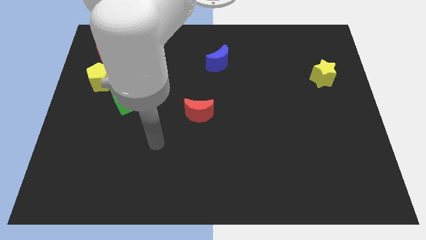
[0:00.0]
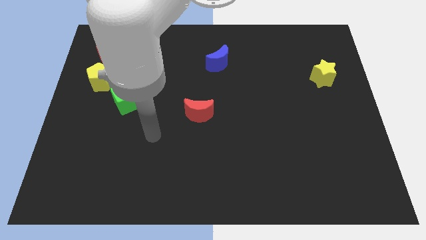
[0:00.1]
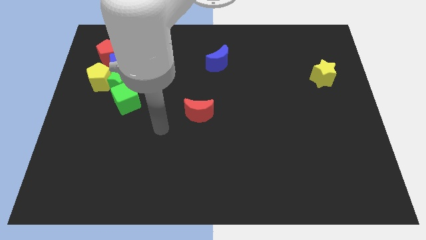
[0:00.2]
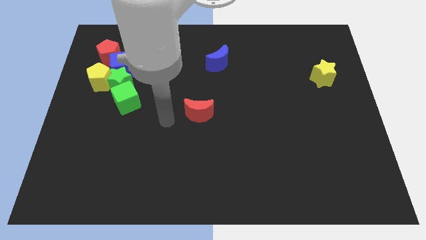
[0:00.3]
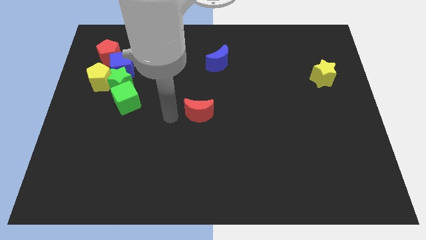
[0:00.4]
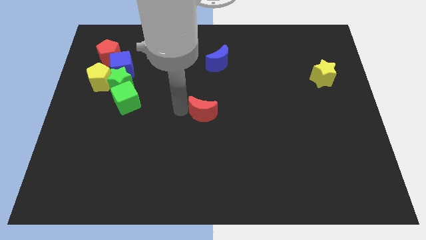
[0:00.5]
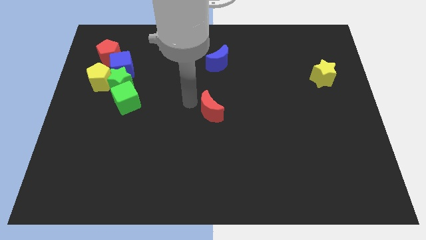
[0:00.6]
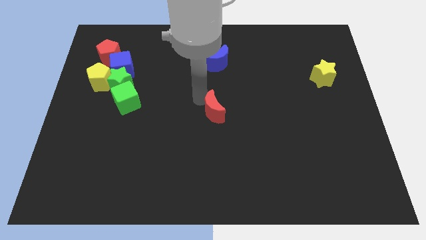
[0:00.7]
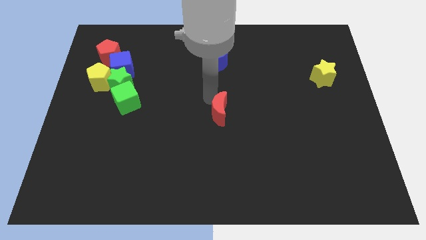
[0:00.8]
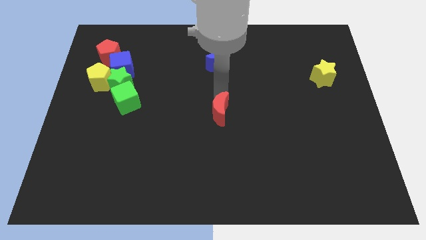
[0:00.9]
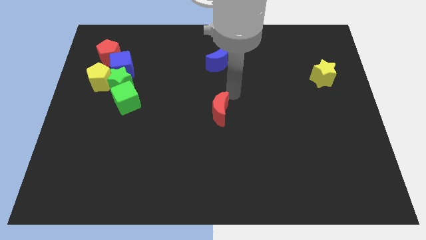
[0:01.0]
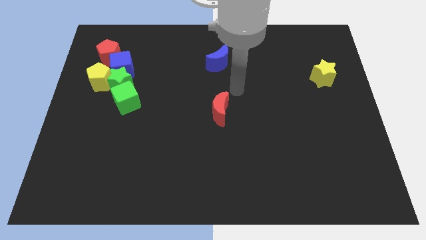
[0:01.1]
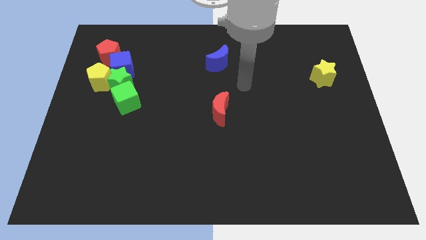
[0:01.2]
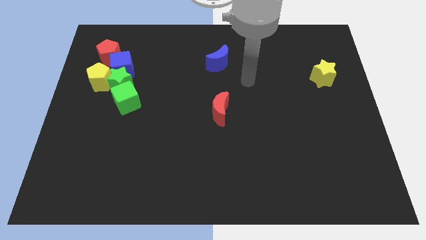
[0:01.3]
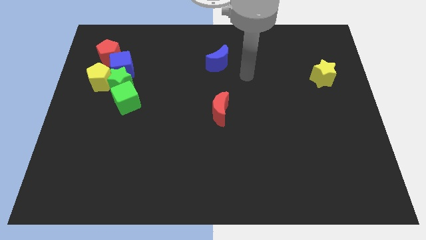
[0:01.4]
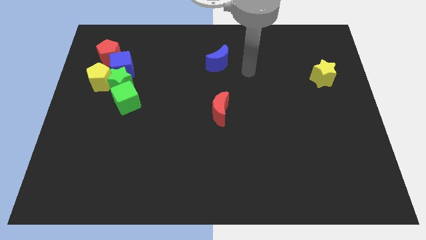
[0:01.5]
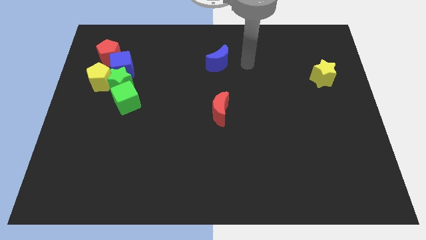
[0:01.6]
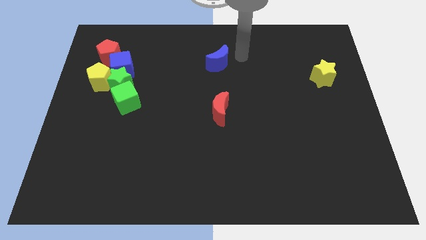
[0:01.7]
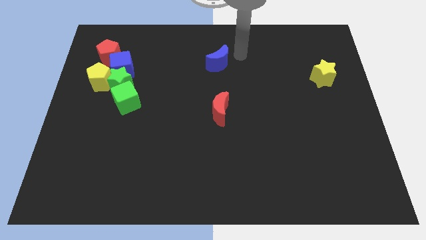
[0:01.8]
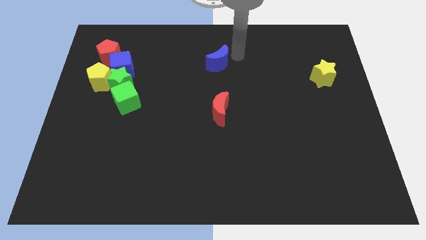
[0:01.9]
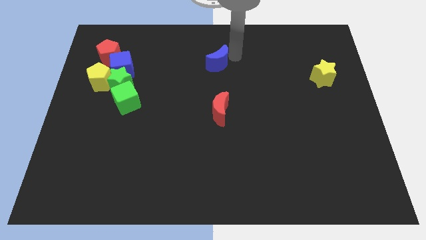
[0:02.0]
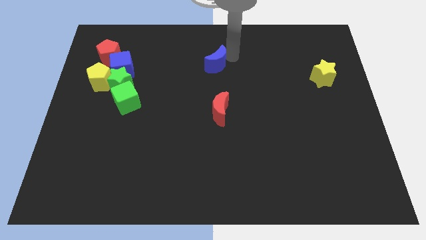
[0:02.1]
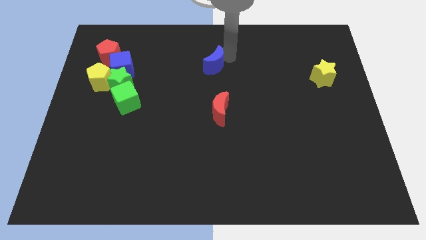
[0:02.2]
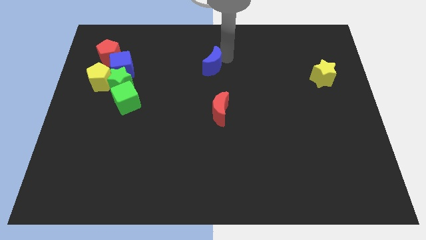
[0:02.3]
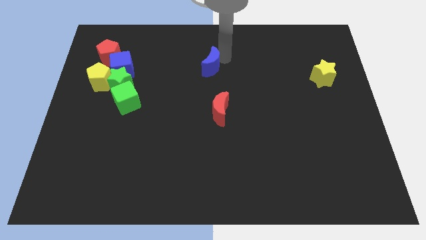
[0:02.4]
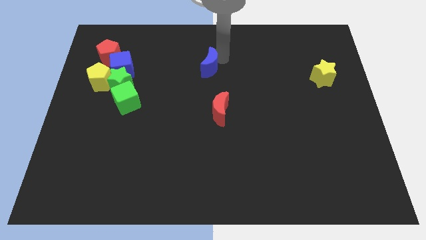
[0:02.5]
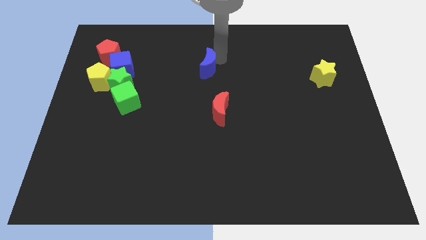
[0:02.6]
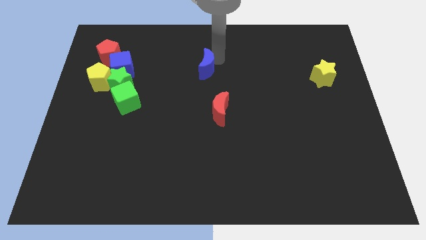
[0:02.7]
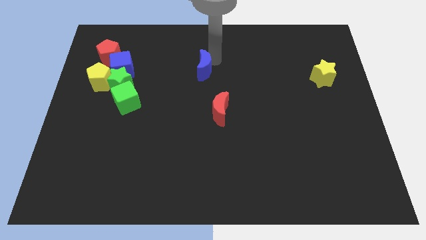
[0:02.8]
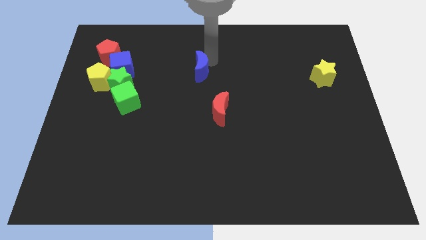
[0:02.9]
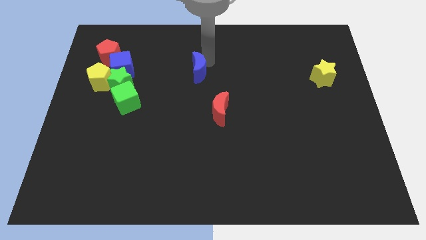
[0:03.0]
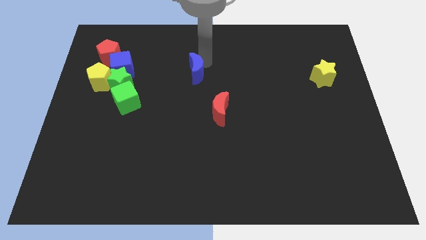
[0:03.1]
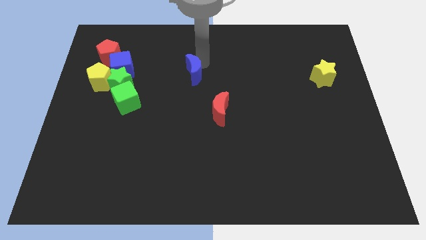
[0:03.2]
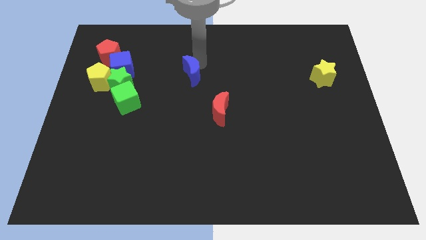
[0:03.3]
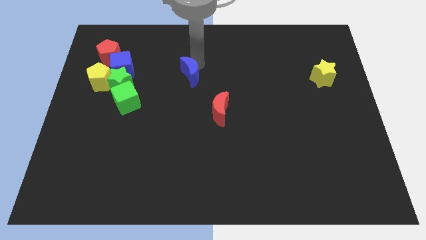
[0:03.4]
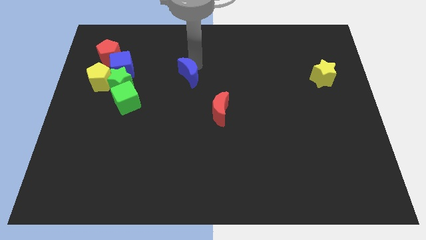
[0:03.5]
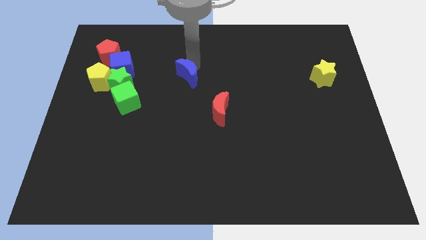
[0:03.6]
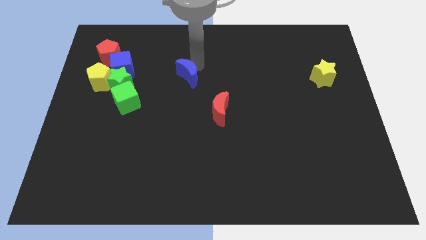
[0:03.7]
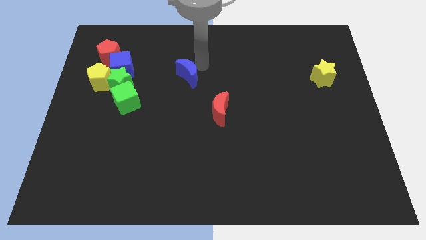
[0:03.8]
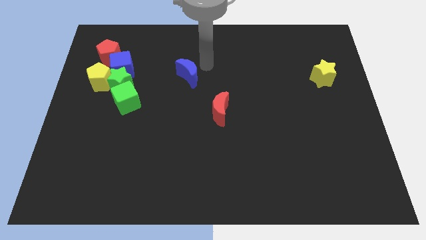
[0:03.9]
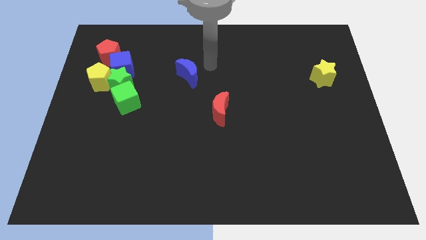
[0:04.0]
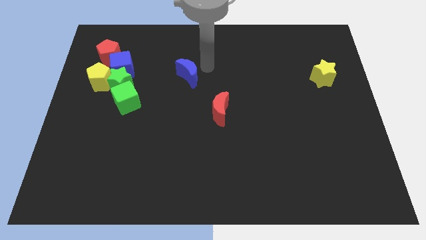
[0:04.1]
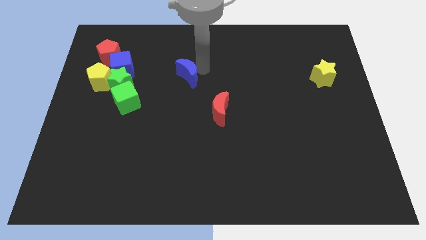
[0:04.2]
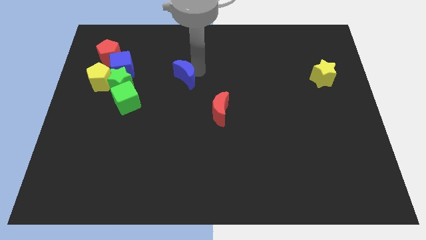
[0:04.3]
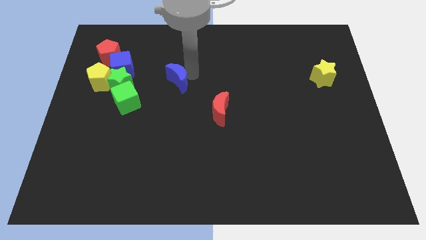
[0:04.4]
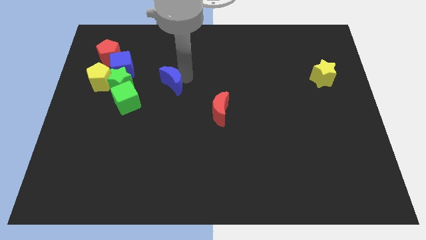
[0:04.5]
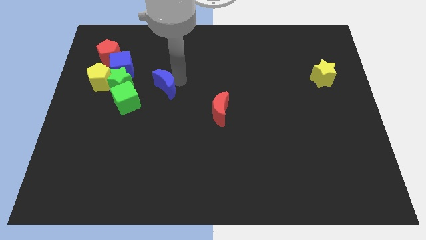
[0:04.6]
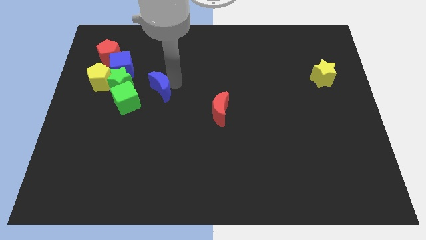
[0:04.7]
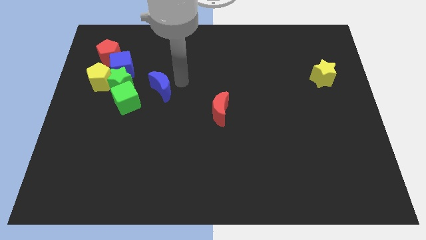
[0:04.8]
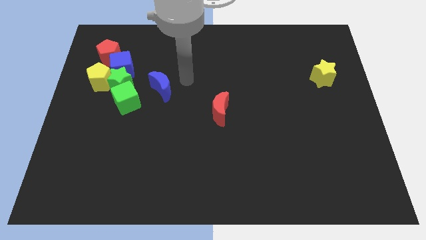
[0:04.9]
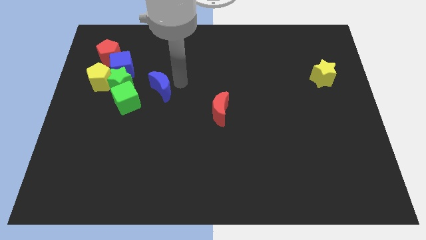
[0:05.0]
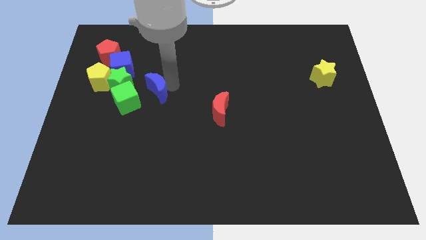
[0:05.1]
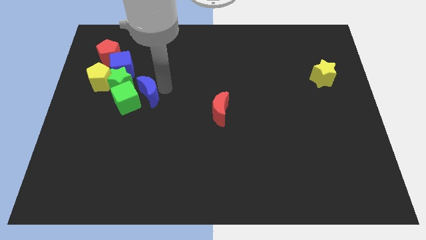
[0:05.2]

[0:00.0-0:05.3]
push the blue moon next to the green cube

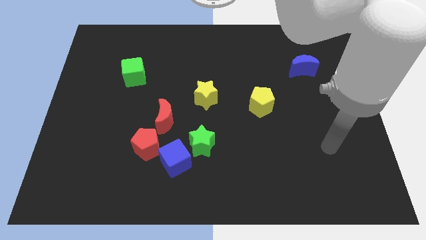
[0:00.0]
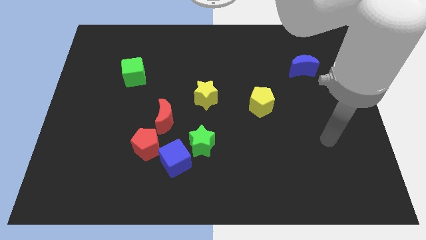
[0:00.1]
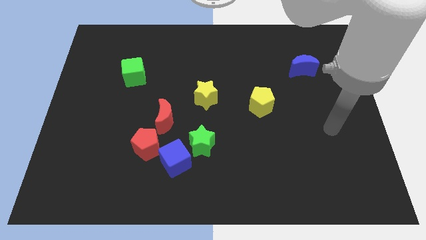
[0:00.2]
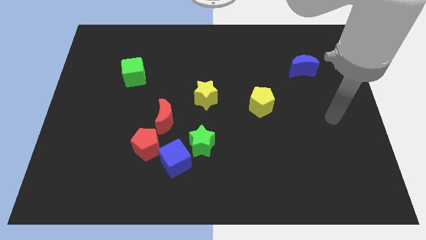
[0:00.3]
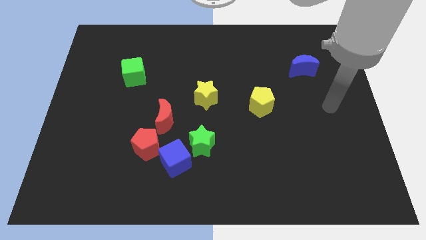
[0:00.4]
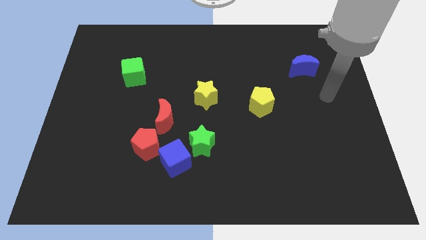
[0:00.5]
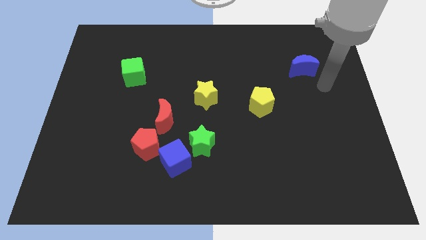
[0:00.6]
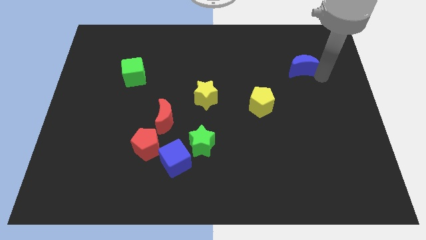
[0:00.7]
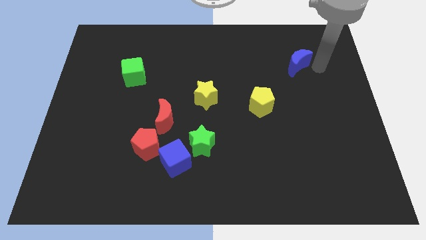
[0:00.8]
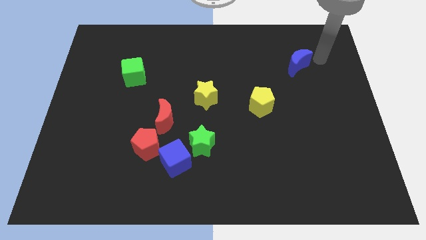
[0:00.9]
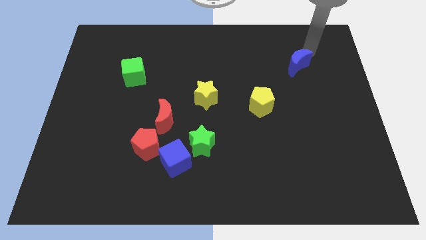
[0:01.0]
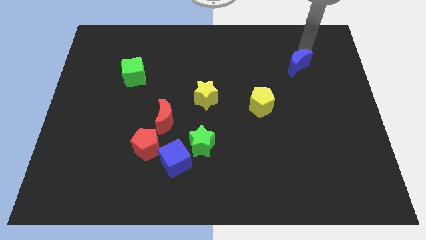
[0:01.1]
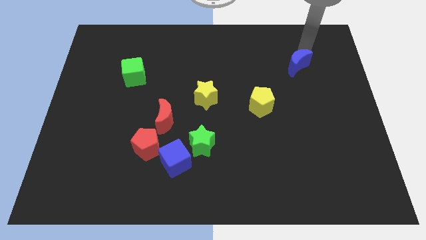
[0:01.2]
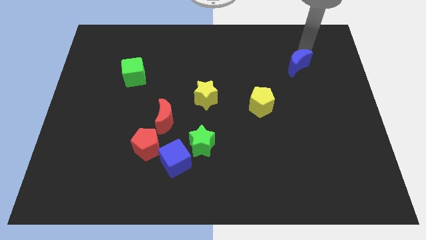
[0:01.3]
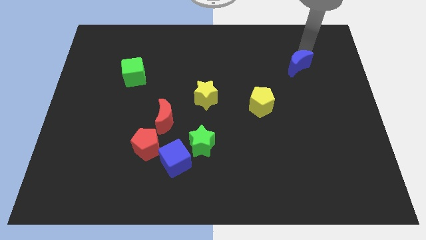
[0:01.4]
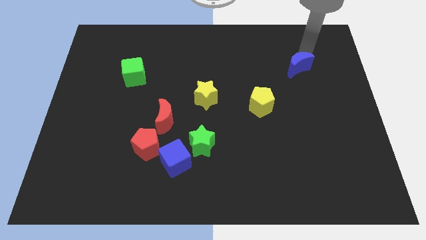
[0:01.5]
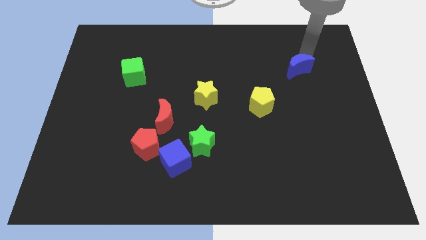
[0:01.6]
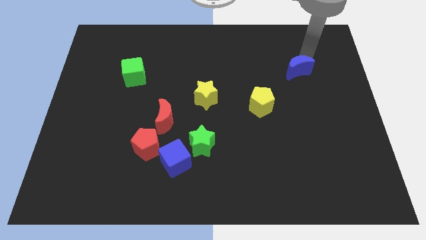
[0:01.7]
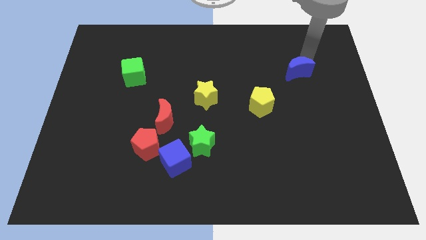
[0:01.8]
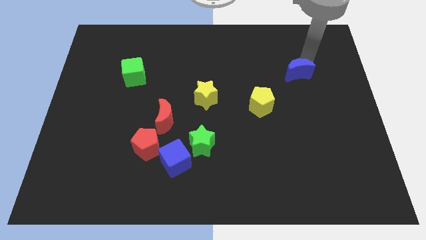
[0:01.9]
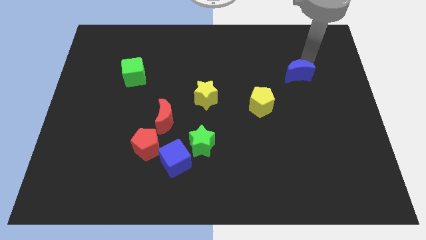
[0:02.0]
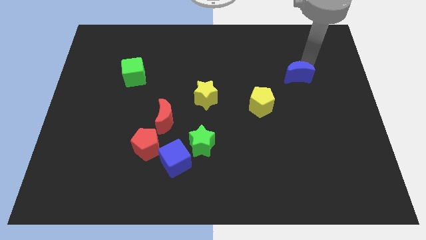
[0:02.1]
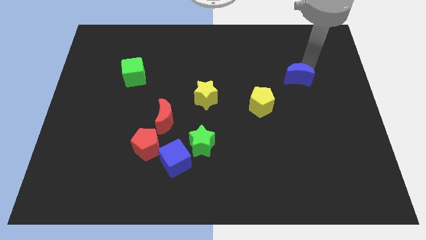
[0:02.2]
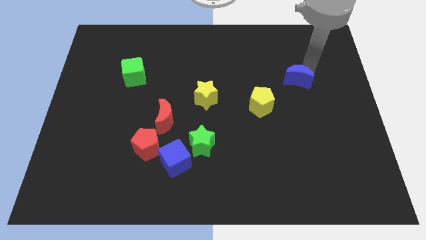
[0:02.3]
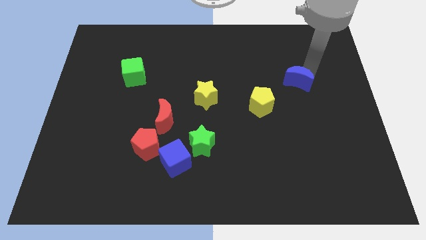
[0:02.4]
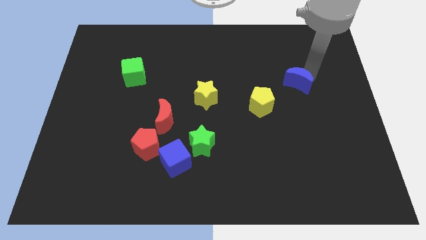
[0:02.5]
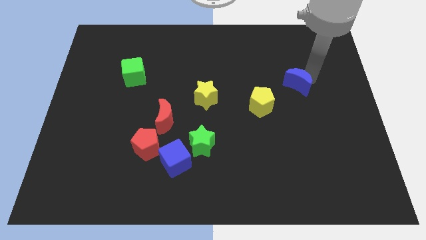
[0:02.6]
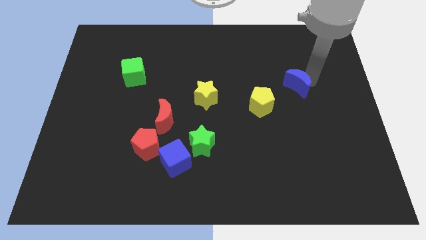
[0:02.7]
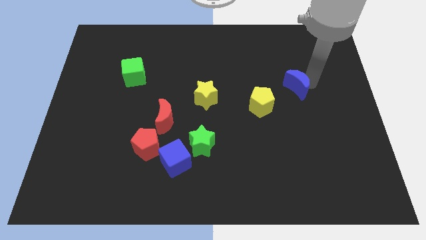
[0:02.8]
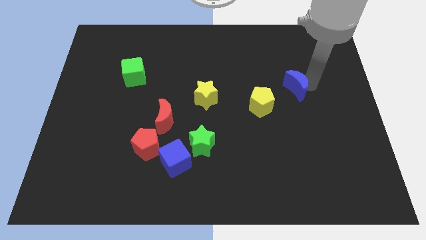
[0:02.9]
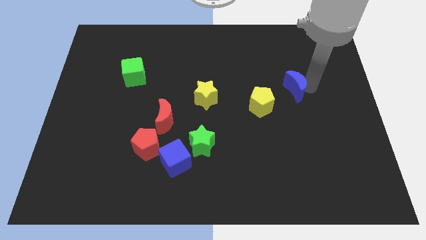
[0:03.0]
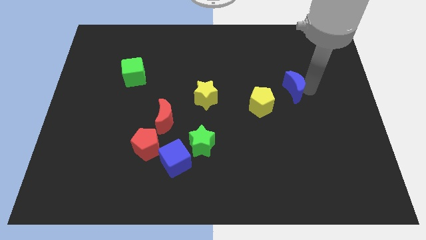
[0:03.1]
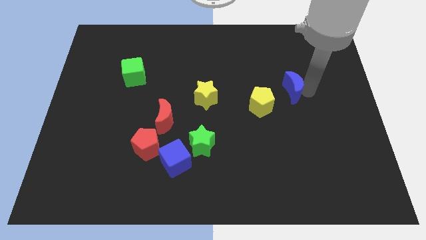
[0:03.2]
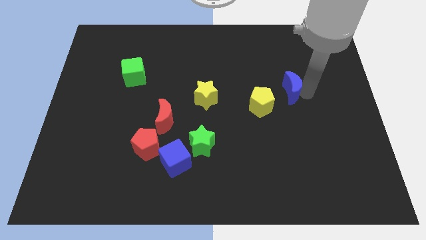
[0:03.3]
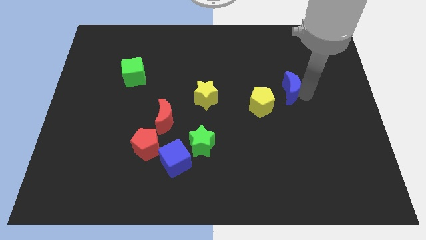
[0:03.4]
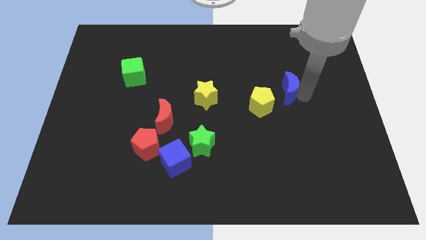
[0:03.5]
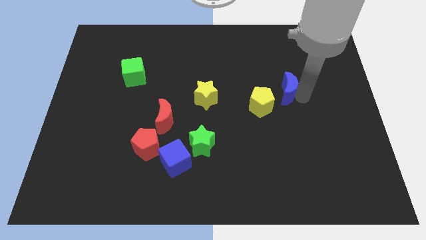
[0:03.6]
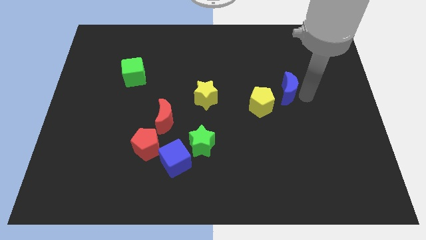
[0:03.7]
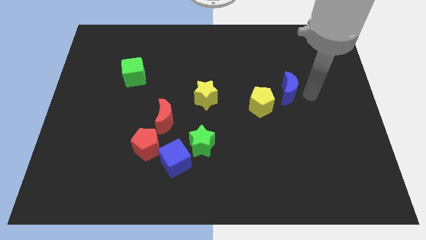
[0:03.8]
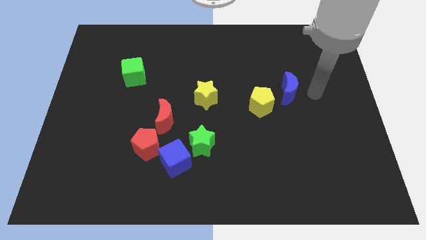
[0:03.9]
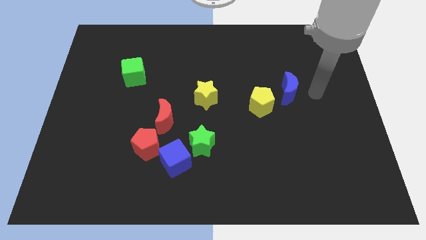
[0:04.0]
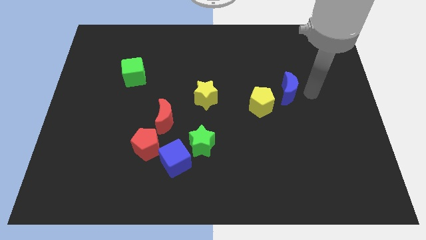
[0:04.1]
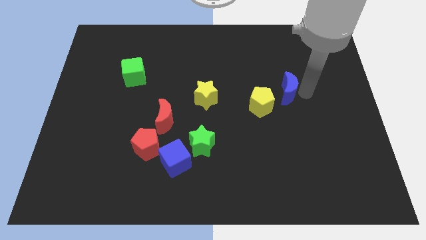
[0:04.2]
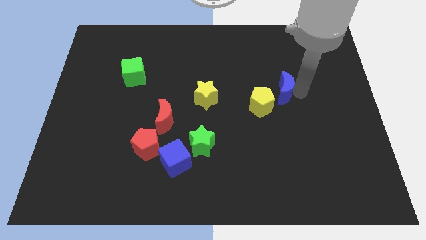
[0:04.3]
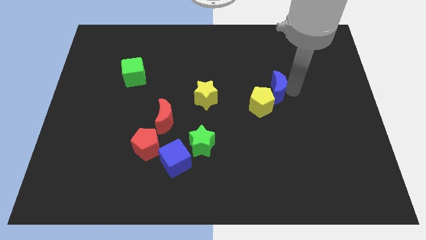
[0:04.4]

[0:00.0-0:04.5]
slide the blue moon next to the yellow pentagon
